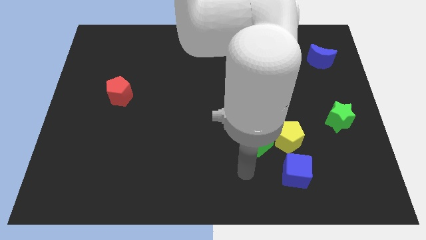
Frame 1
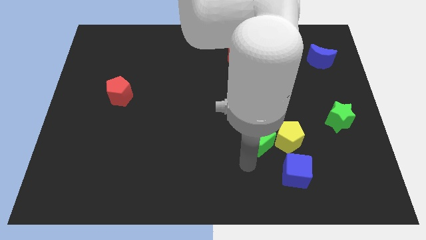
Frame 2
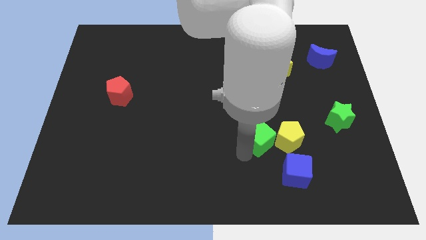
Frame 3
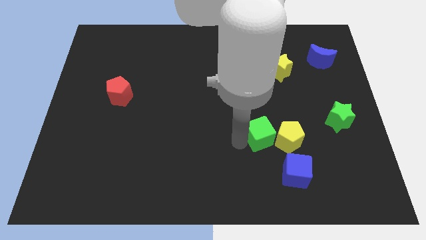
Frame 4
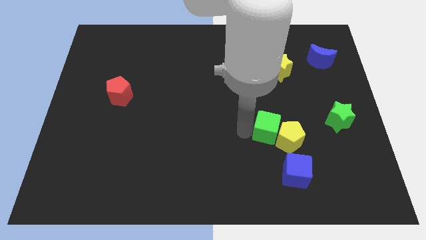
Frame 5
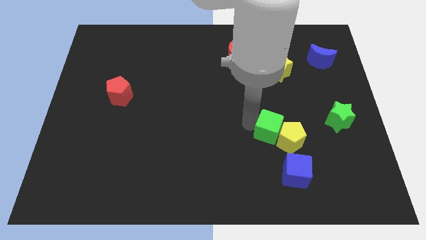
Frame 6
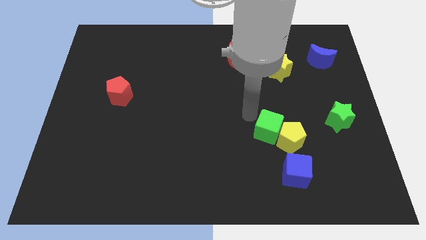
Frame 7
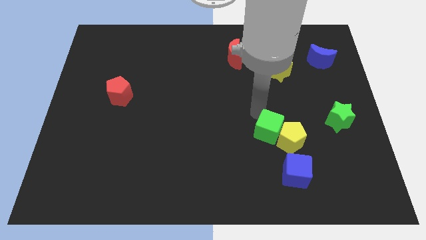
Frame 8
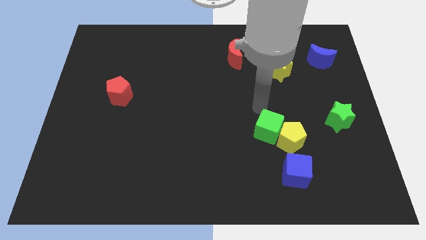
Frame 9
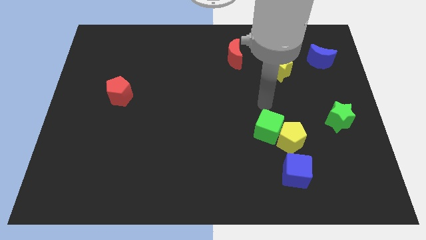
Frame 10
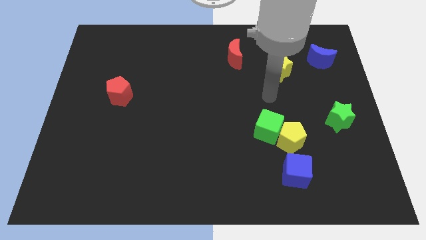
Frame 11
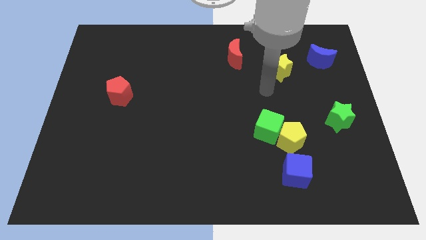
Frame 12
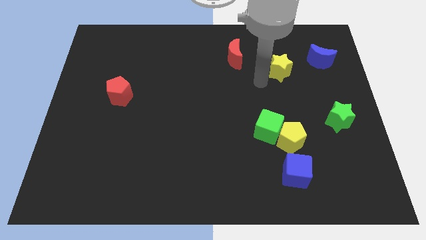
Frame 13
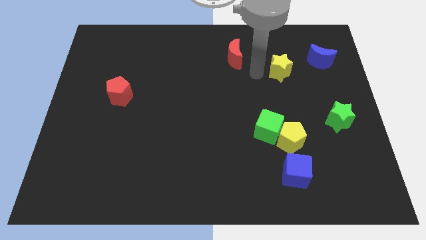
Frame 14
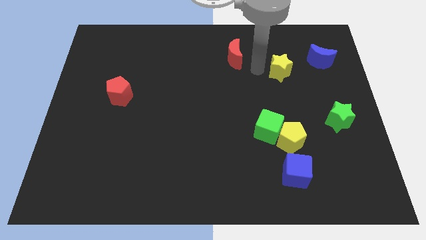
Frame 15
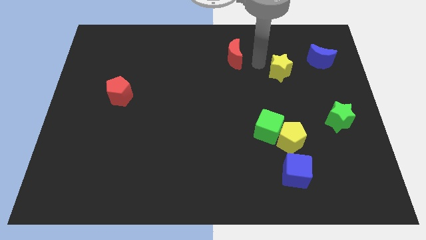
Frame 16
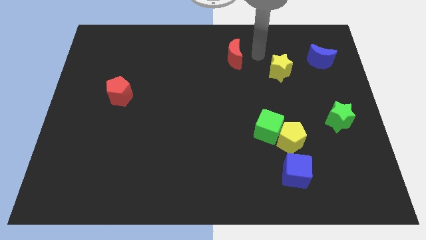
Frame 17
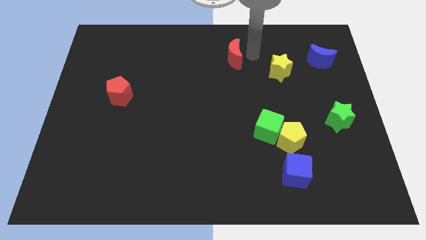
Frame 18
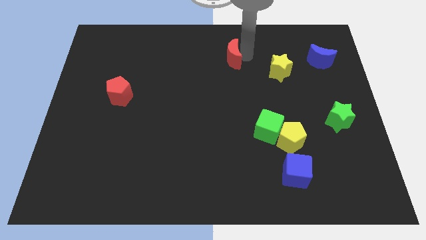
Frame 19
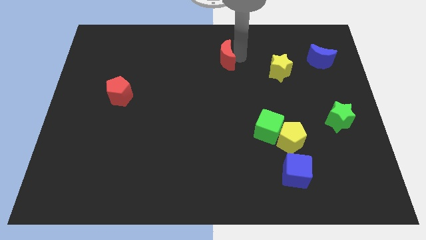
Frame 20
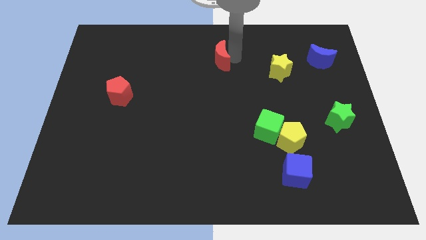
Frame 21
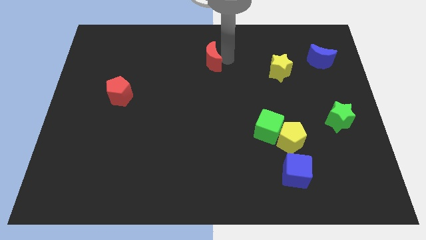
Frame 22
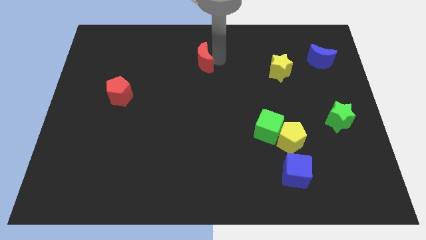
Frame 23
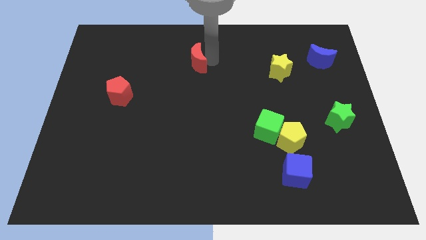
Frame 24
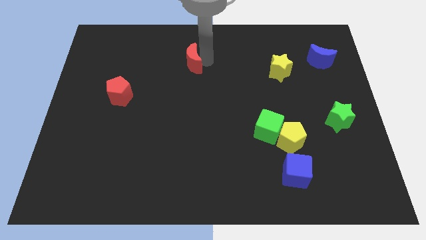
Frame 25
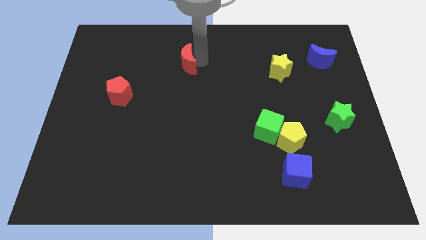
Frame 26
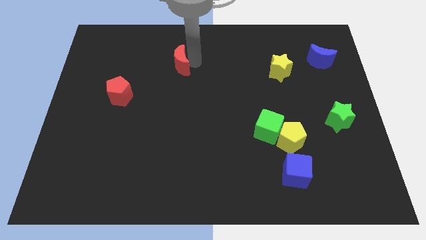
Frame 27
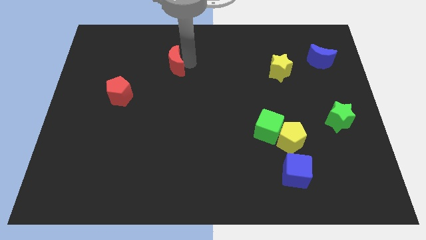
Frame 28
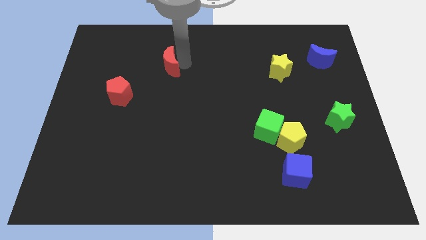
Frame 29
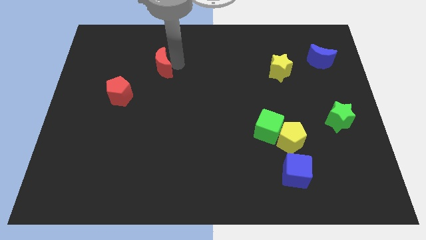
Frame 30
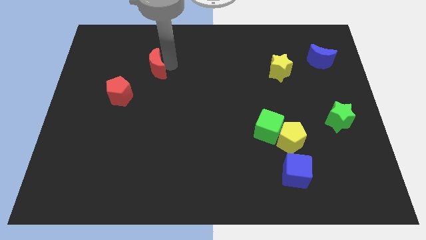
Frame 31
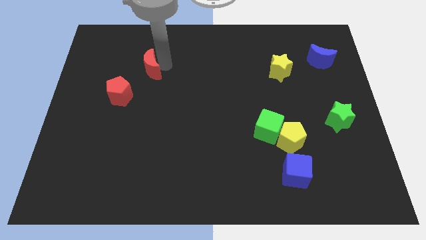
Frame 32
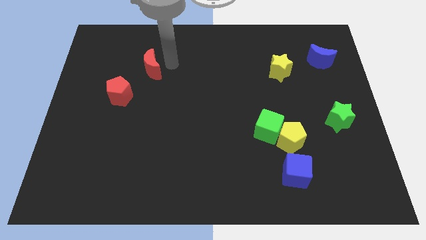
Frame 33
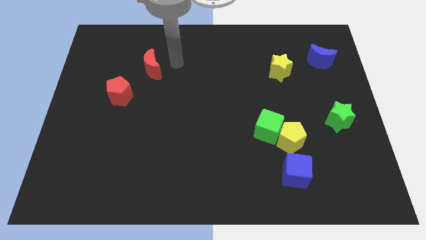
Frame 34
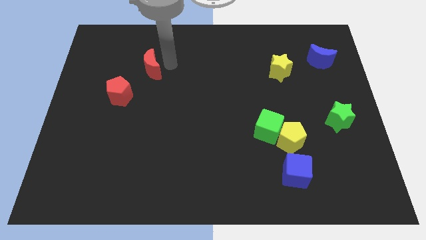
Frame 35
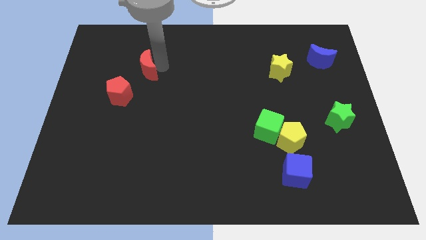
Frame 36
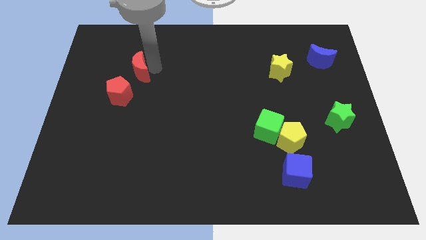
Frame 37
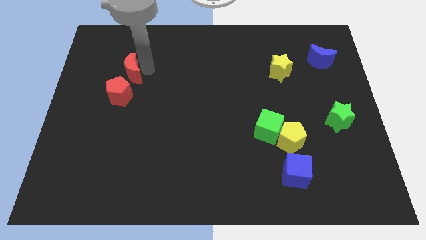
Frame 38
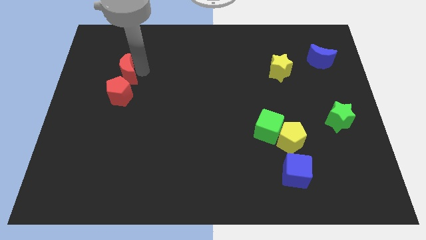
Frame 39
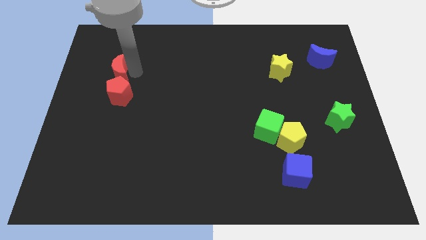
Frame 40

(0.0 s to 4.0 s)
slide the red moon to the top left side of the red pentagon

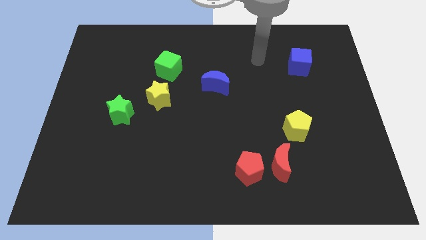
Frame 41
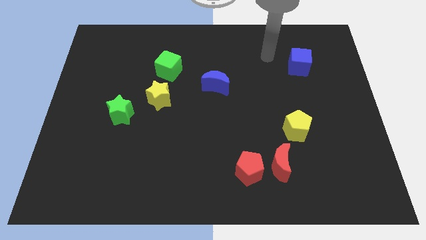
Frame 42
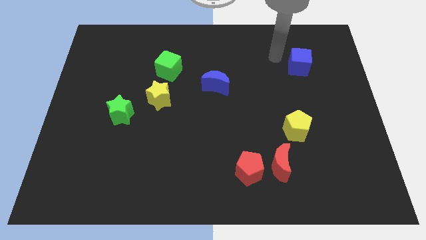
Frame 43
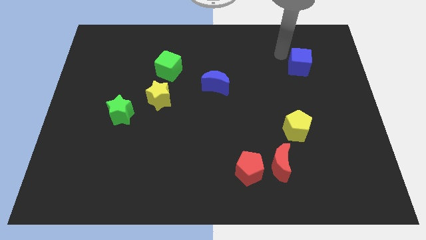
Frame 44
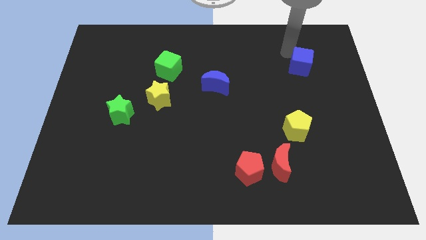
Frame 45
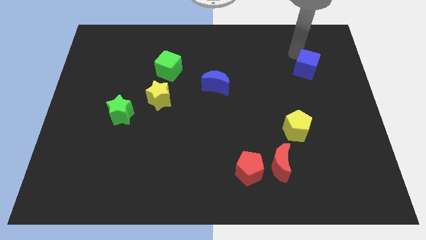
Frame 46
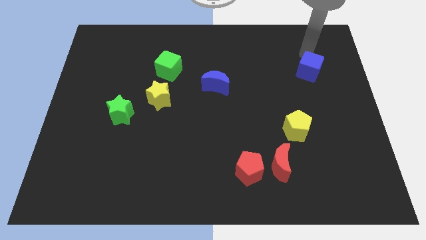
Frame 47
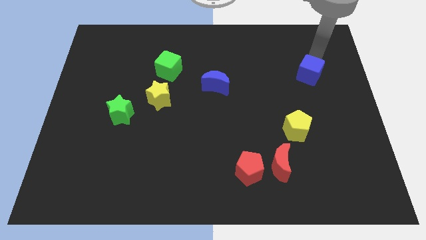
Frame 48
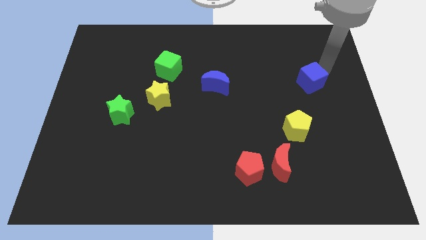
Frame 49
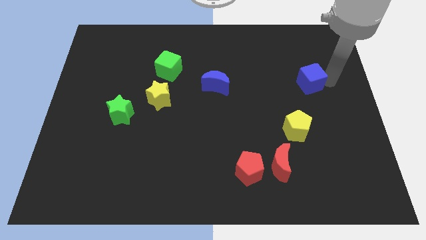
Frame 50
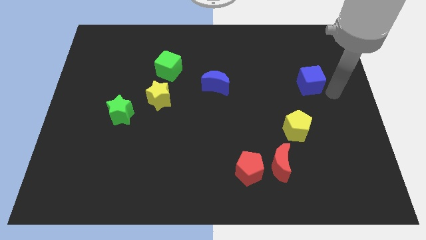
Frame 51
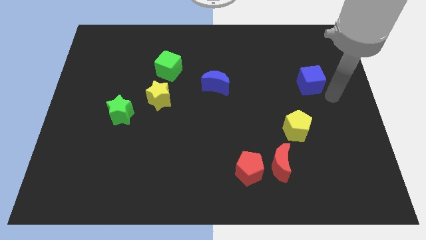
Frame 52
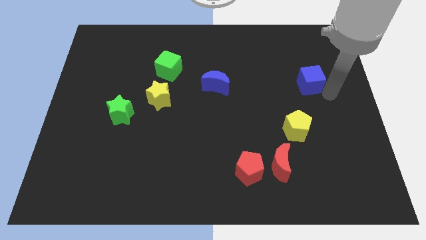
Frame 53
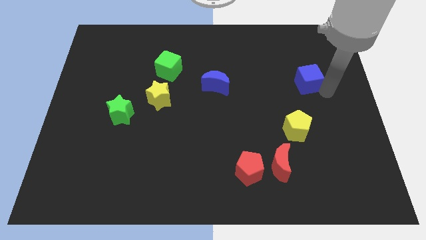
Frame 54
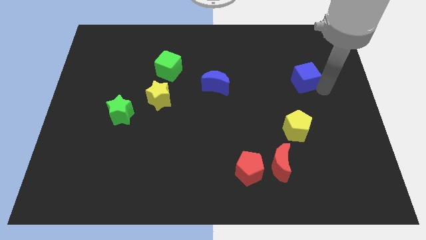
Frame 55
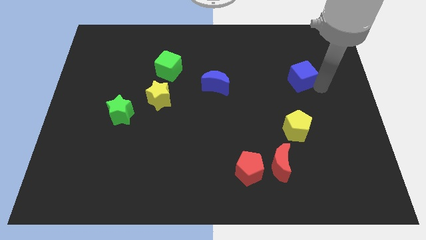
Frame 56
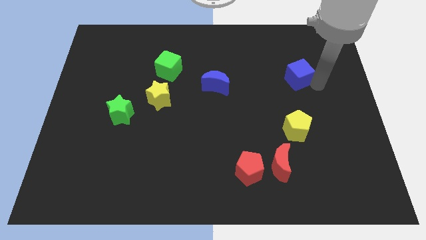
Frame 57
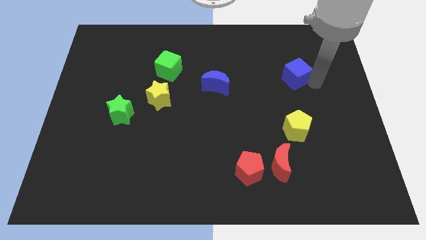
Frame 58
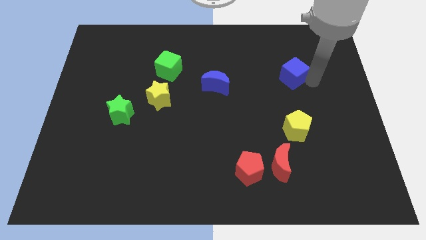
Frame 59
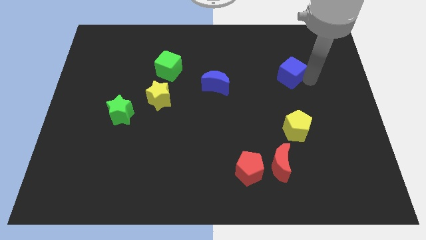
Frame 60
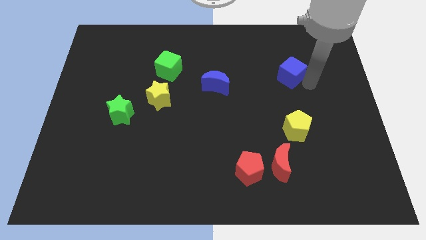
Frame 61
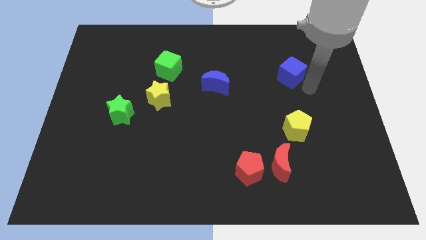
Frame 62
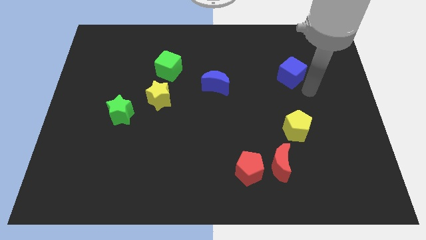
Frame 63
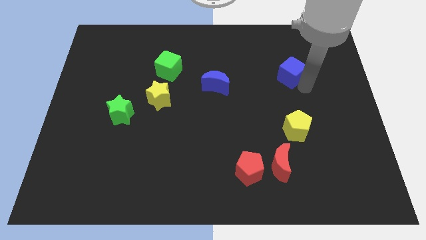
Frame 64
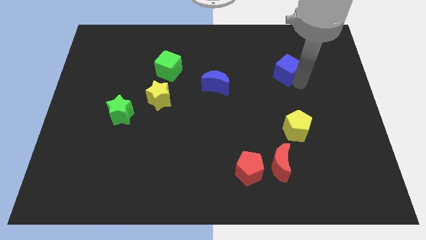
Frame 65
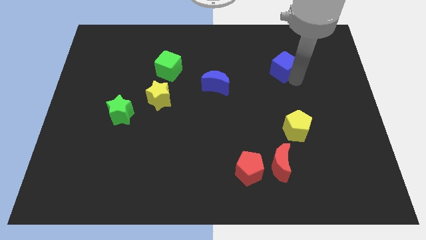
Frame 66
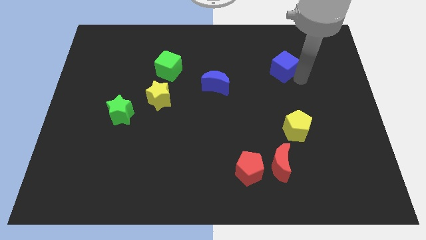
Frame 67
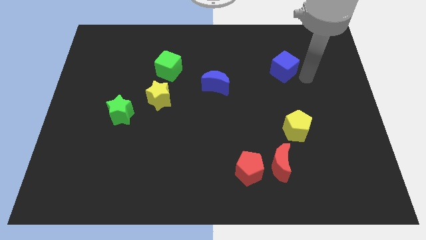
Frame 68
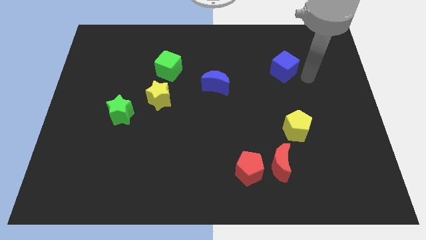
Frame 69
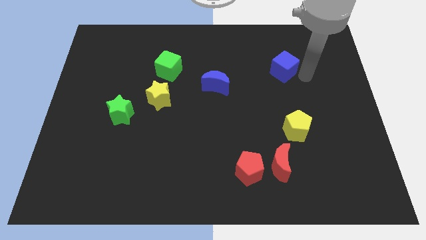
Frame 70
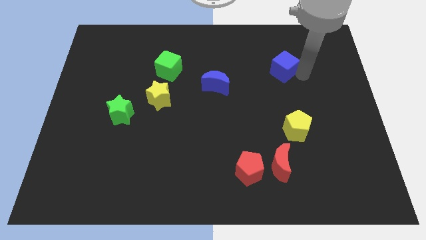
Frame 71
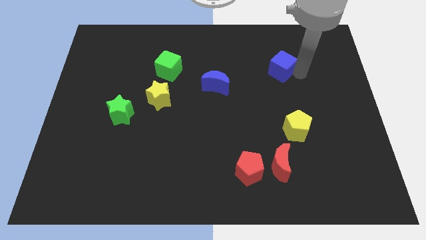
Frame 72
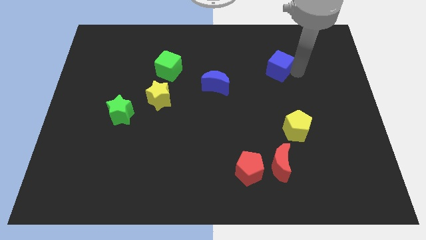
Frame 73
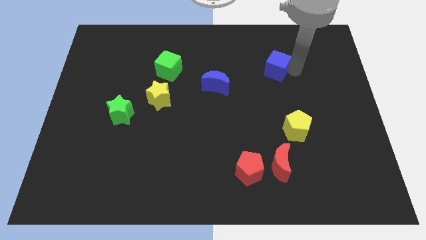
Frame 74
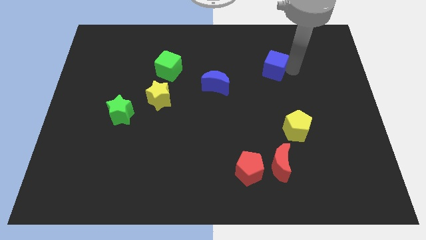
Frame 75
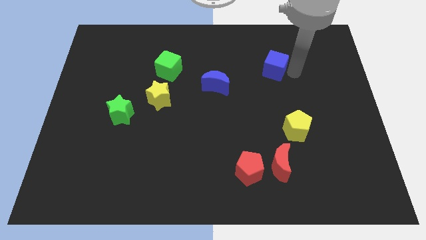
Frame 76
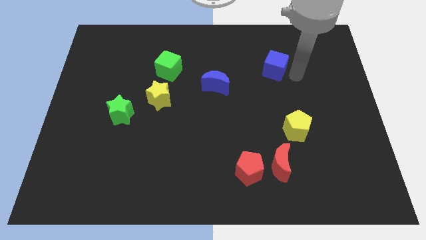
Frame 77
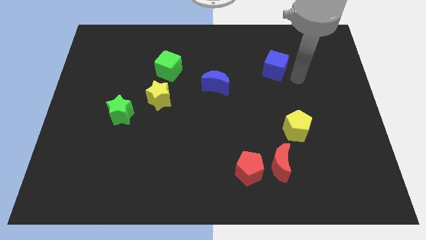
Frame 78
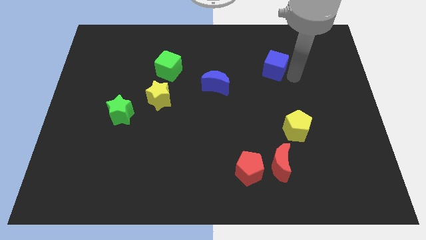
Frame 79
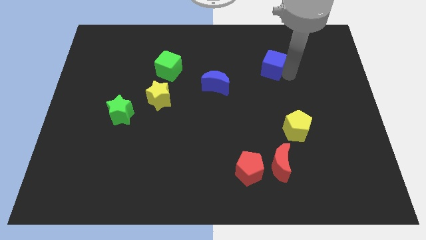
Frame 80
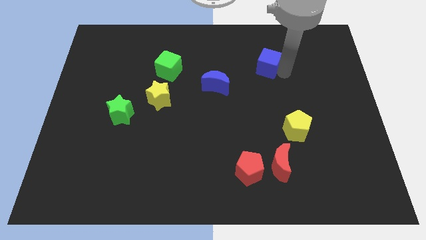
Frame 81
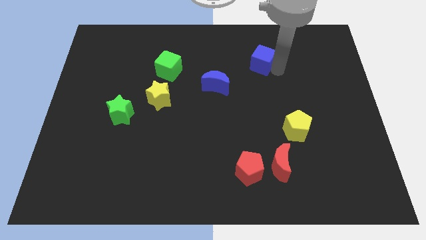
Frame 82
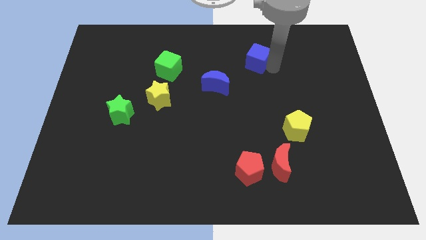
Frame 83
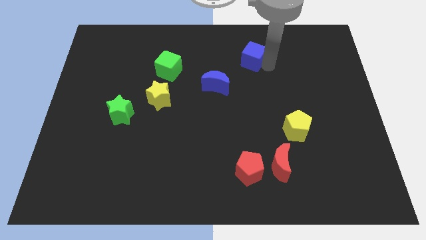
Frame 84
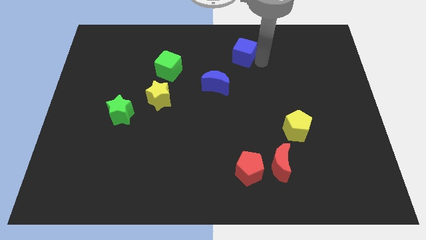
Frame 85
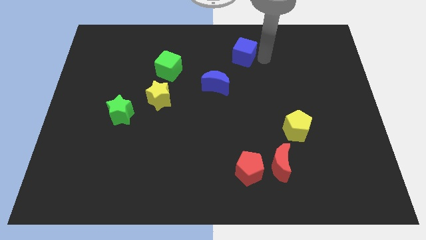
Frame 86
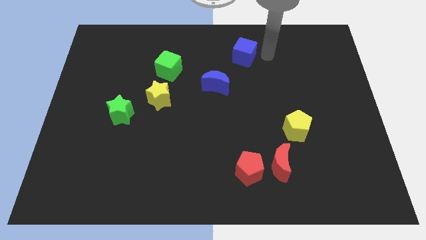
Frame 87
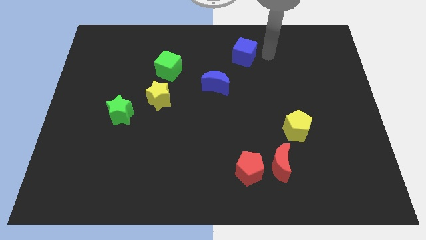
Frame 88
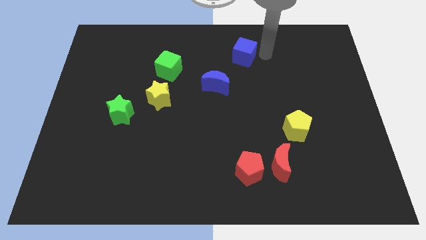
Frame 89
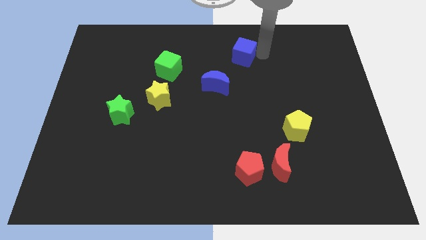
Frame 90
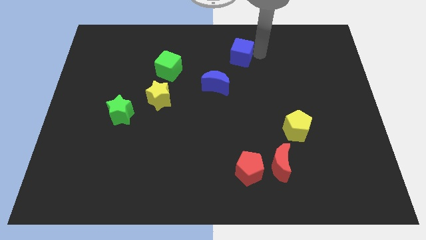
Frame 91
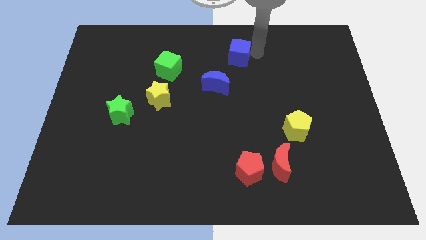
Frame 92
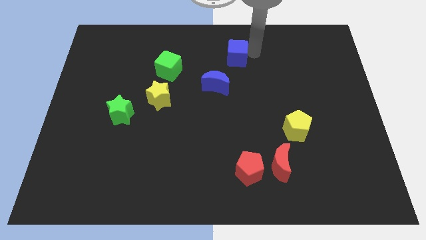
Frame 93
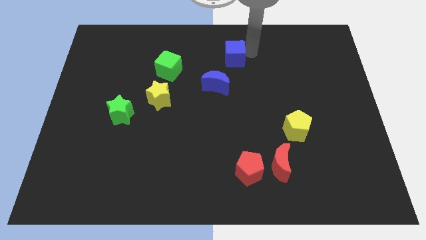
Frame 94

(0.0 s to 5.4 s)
move the blue cube to the top of the blue moon
